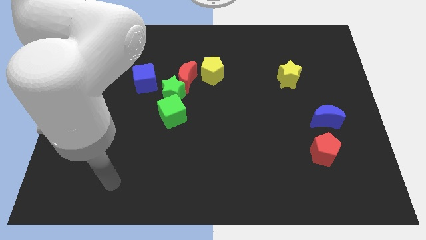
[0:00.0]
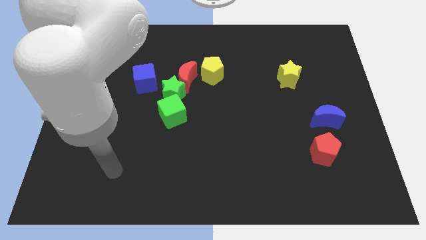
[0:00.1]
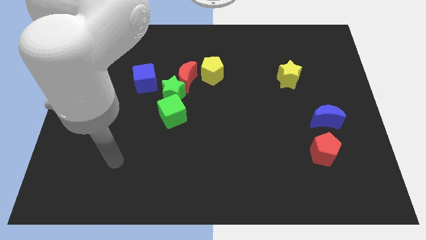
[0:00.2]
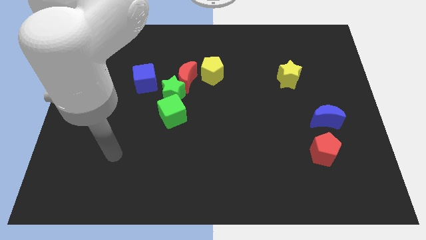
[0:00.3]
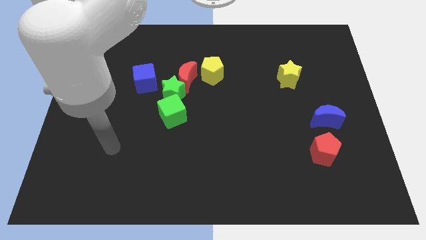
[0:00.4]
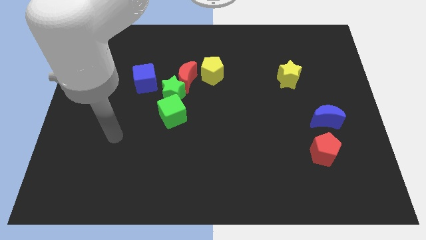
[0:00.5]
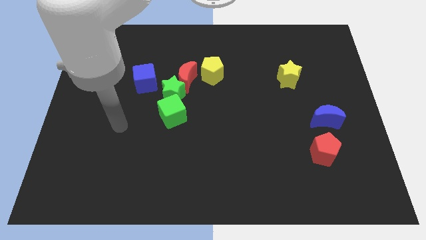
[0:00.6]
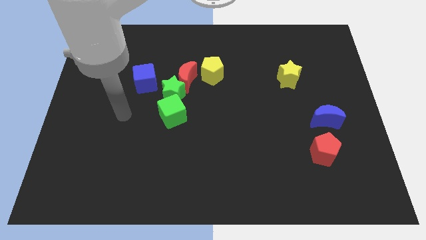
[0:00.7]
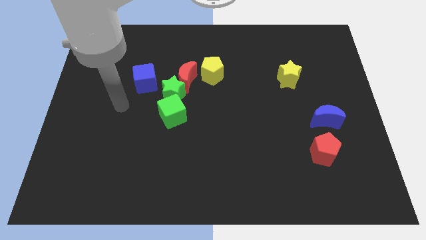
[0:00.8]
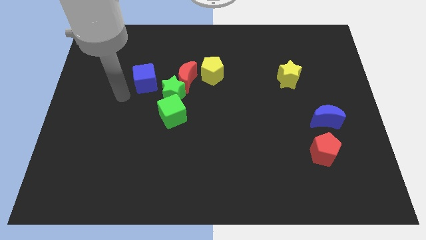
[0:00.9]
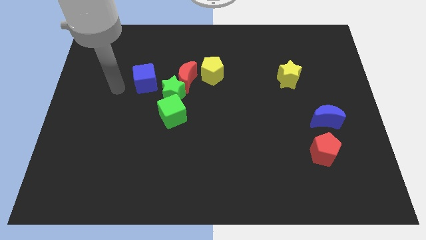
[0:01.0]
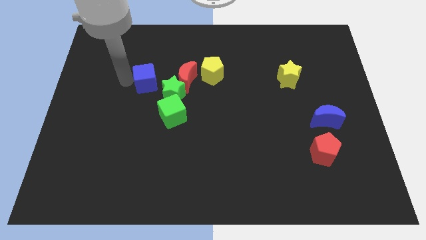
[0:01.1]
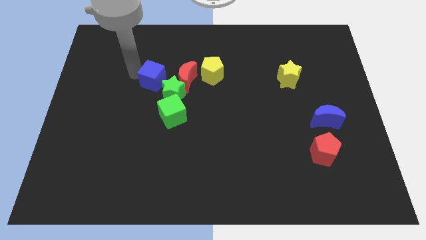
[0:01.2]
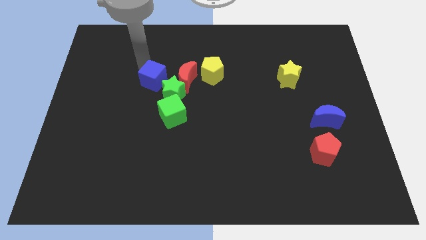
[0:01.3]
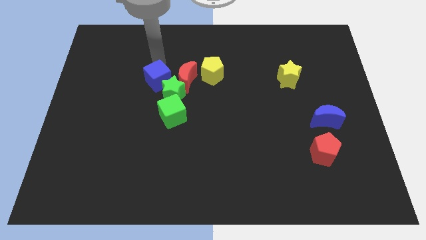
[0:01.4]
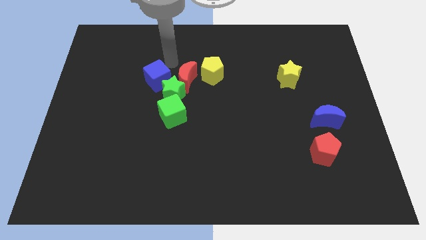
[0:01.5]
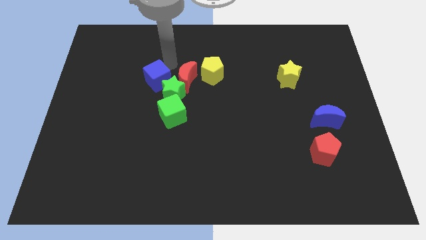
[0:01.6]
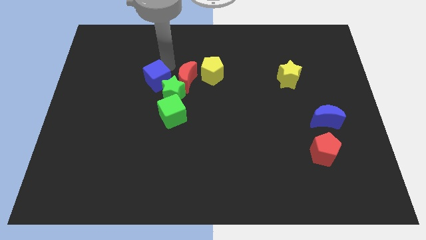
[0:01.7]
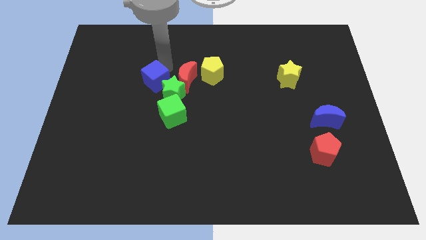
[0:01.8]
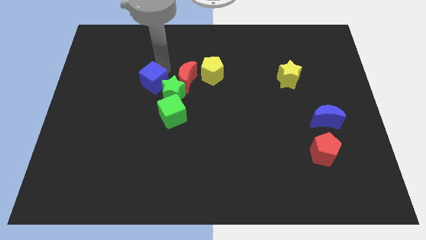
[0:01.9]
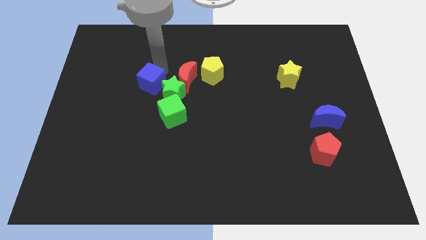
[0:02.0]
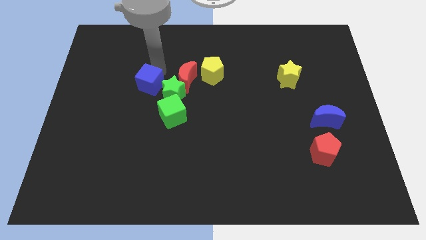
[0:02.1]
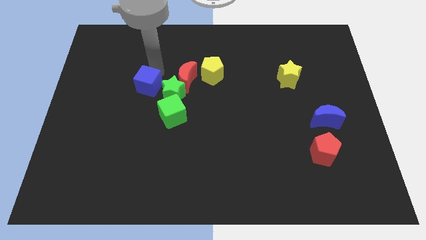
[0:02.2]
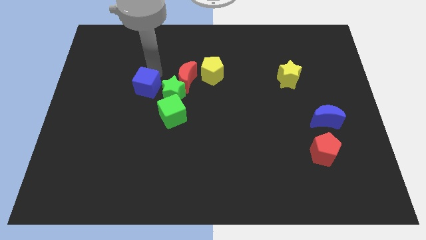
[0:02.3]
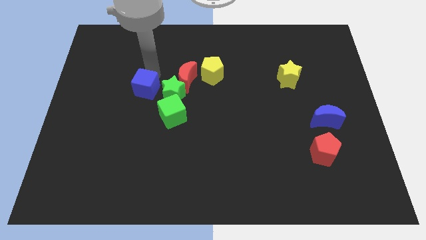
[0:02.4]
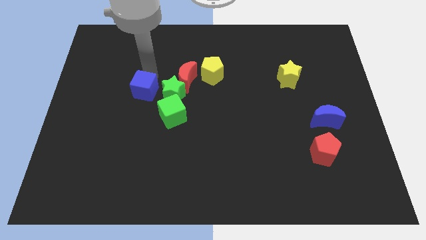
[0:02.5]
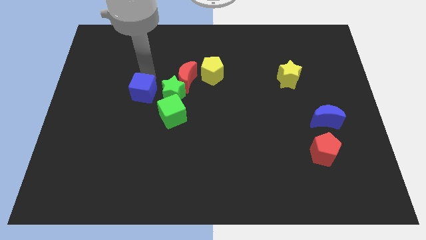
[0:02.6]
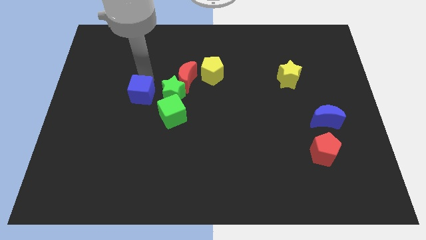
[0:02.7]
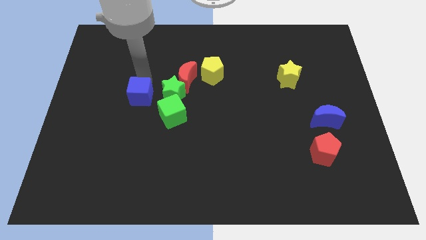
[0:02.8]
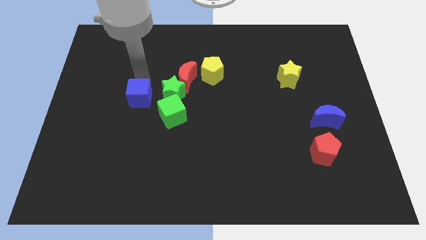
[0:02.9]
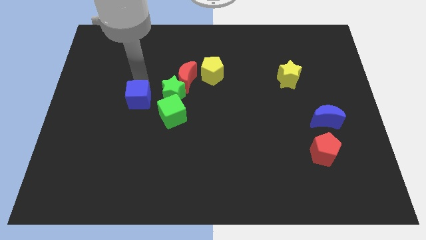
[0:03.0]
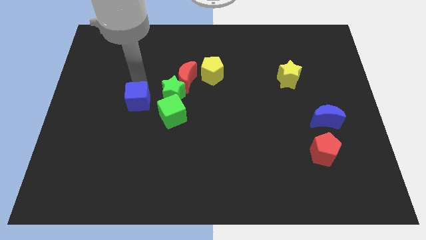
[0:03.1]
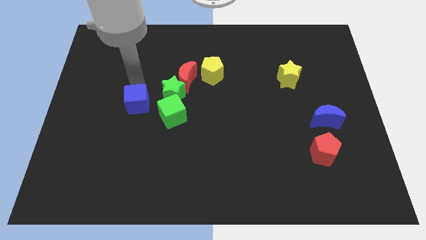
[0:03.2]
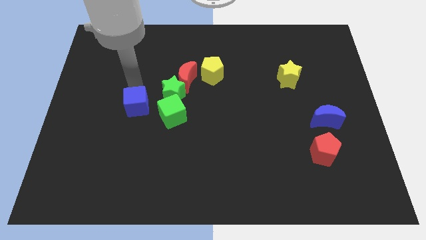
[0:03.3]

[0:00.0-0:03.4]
slide the blue cube somewhat downwards

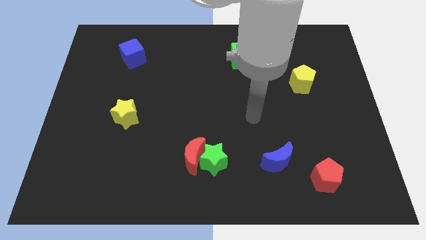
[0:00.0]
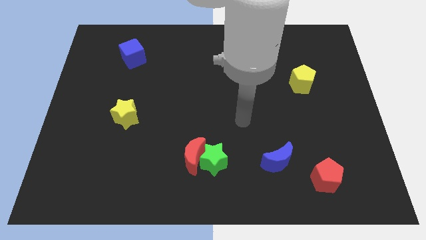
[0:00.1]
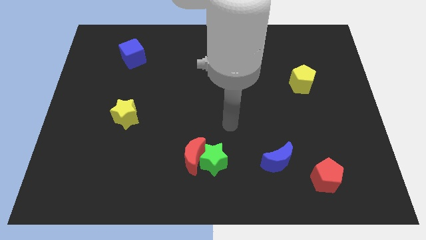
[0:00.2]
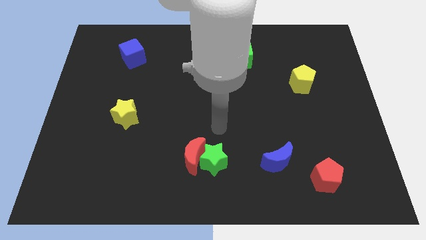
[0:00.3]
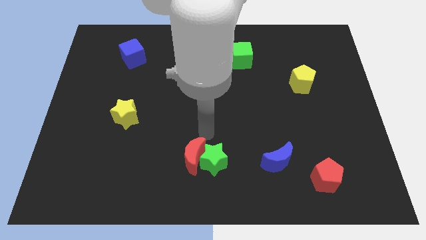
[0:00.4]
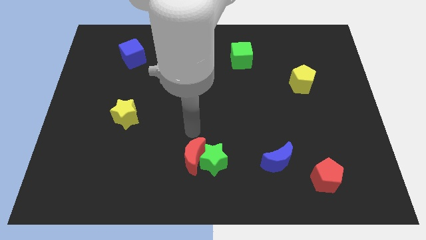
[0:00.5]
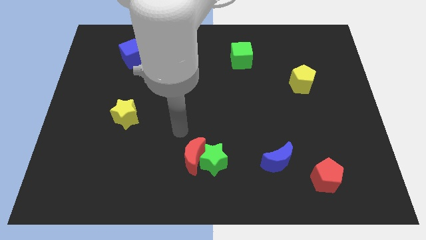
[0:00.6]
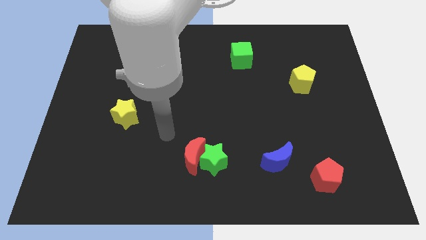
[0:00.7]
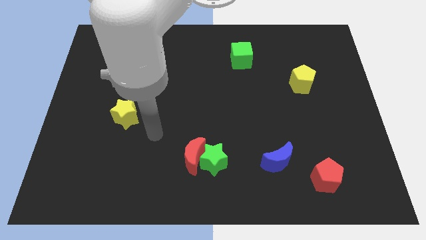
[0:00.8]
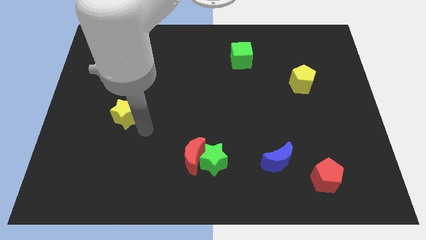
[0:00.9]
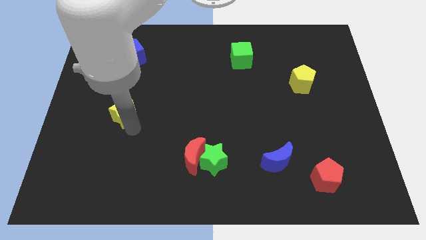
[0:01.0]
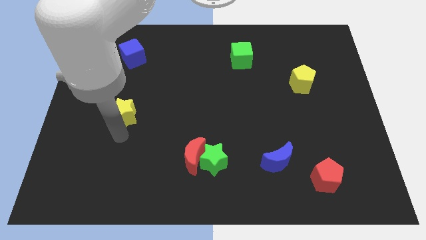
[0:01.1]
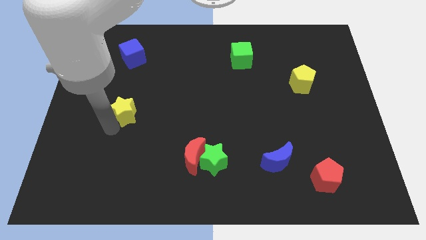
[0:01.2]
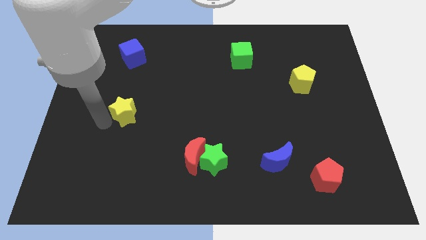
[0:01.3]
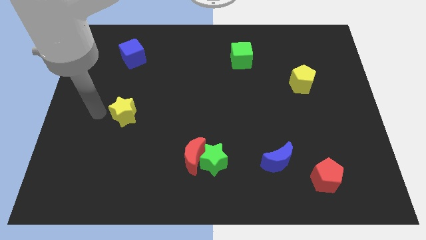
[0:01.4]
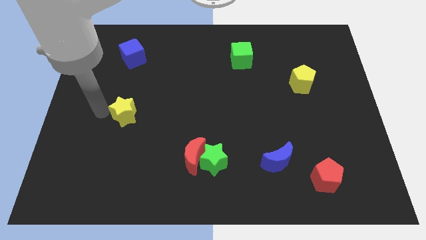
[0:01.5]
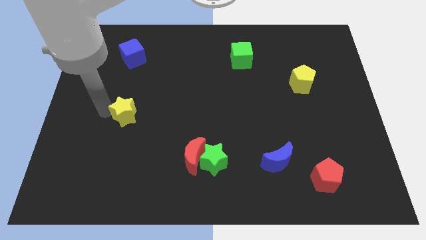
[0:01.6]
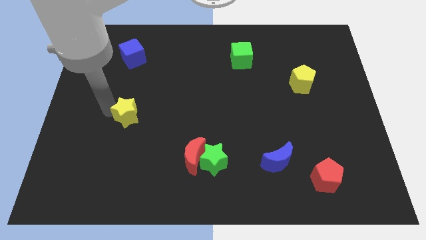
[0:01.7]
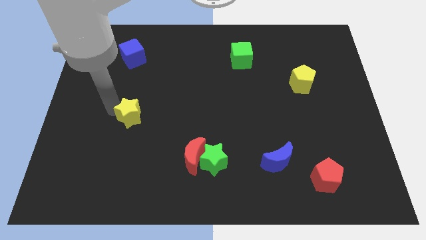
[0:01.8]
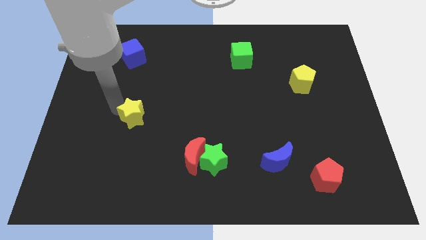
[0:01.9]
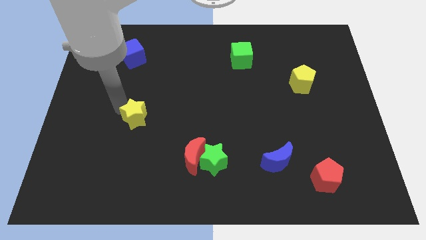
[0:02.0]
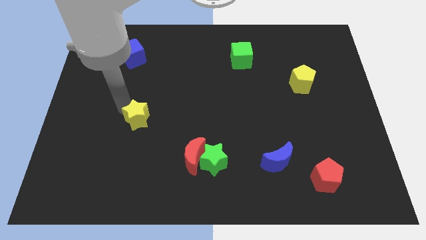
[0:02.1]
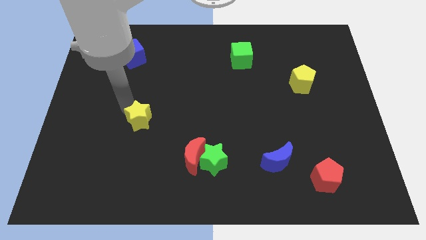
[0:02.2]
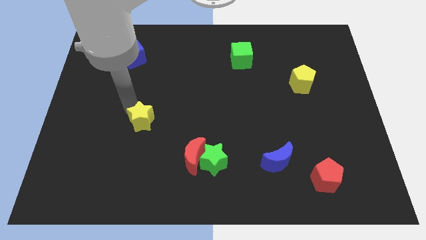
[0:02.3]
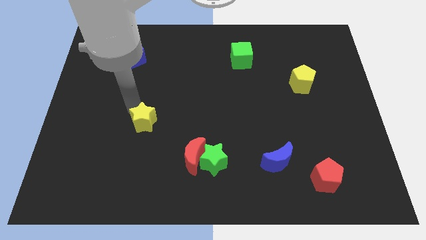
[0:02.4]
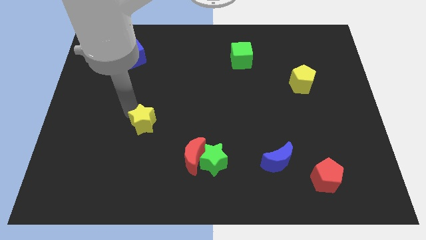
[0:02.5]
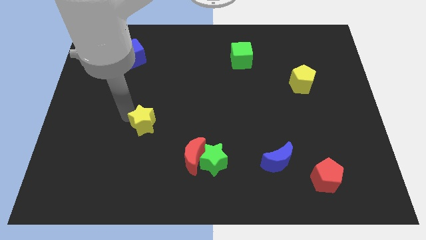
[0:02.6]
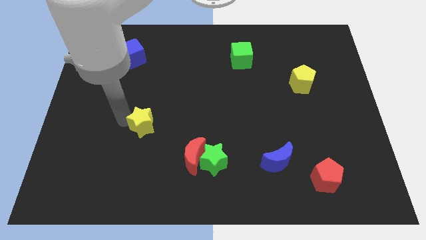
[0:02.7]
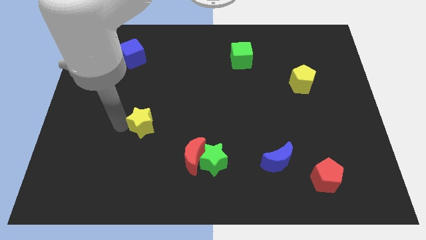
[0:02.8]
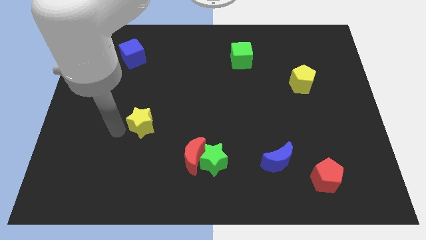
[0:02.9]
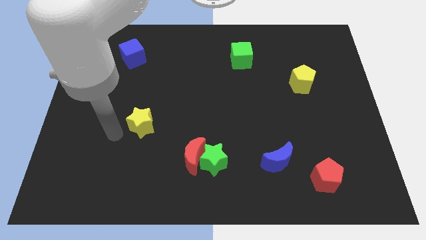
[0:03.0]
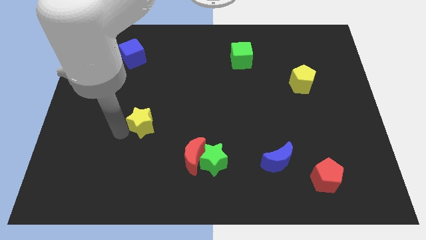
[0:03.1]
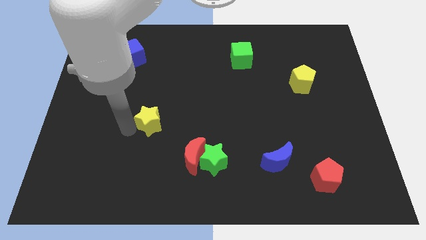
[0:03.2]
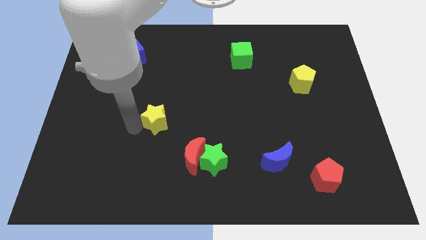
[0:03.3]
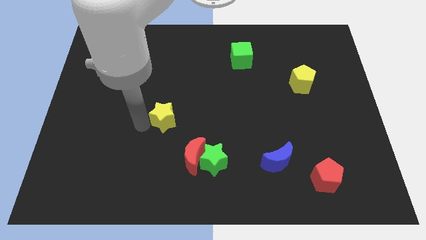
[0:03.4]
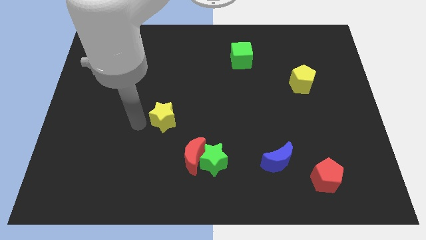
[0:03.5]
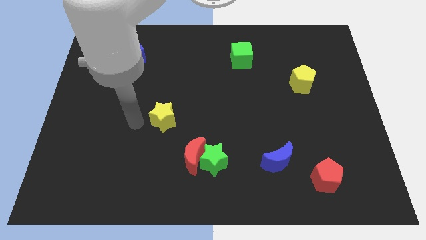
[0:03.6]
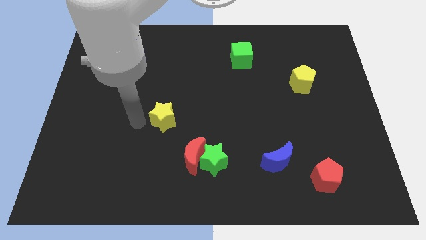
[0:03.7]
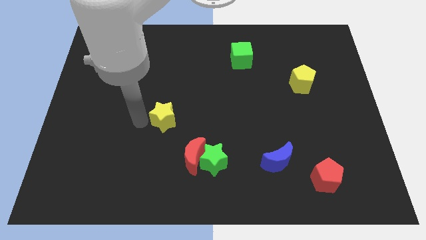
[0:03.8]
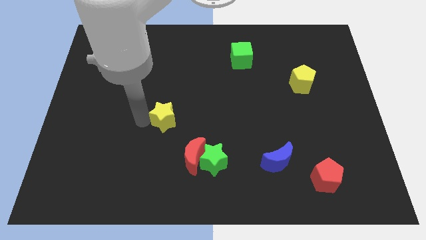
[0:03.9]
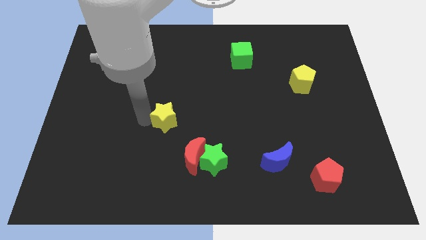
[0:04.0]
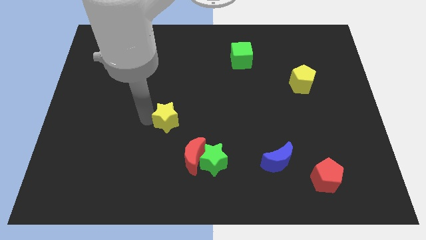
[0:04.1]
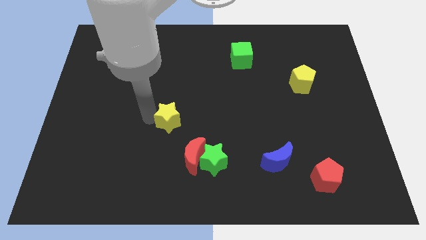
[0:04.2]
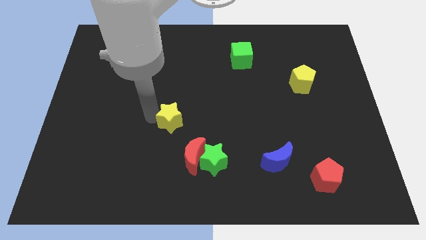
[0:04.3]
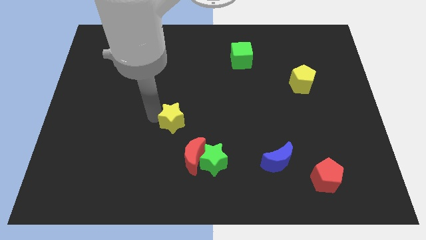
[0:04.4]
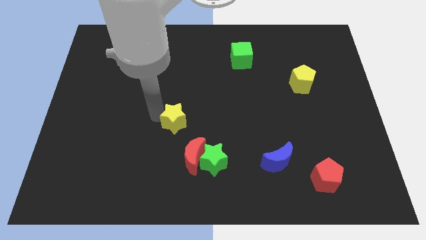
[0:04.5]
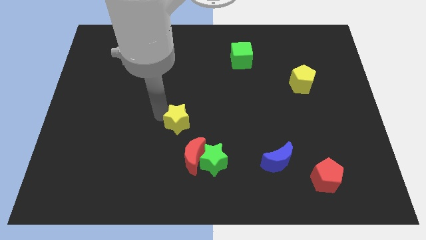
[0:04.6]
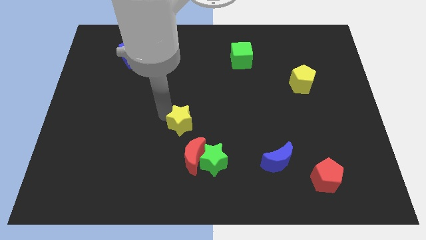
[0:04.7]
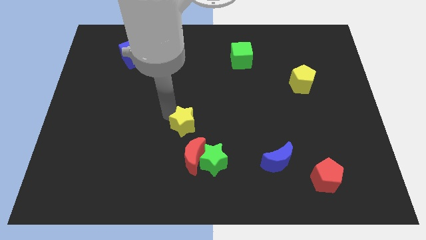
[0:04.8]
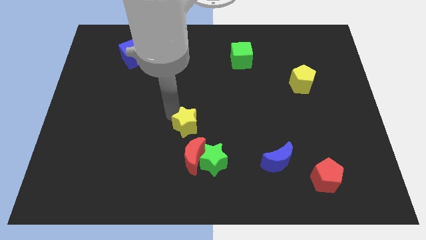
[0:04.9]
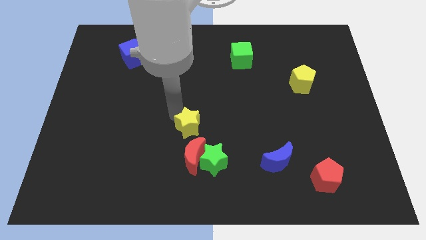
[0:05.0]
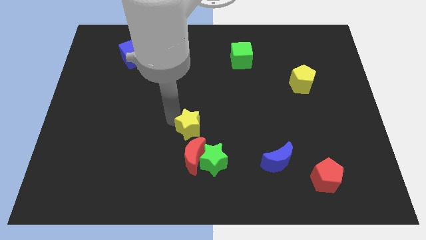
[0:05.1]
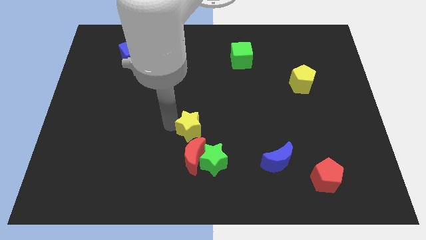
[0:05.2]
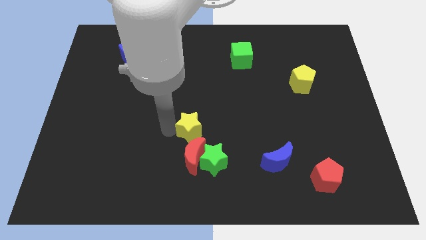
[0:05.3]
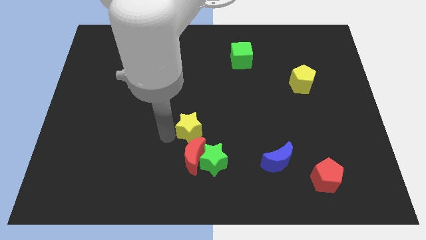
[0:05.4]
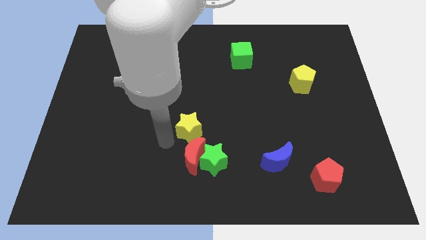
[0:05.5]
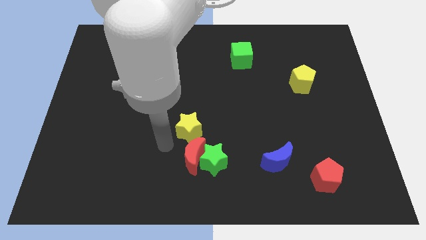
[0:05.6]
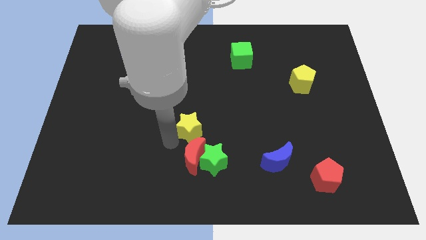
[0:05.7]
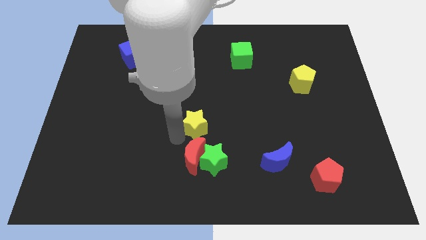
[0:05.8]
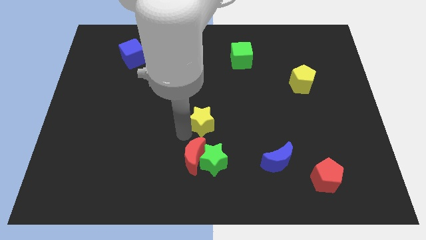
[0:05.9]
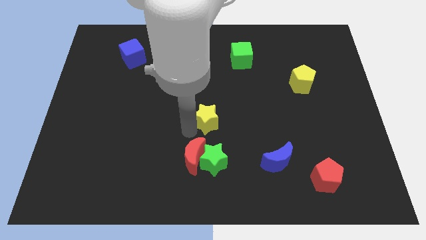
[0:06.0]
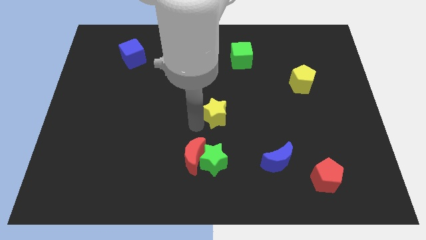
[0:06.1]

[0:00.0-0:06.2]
push the yellow star right
